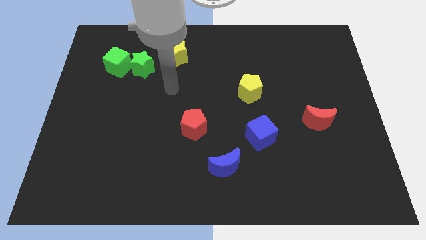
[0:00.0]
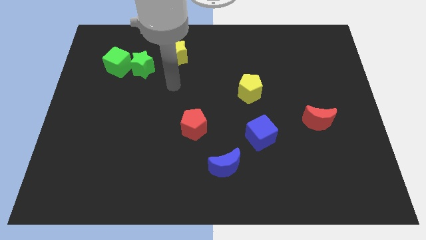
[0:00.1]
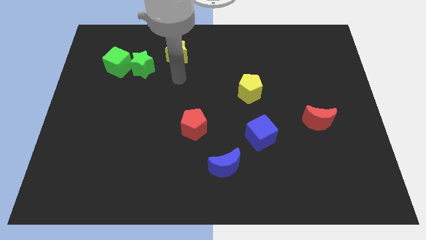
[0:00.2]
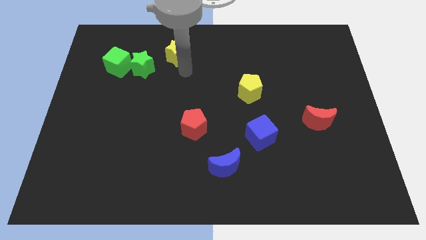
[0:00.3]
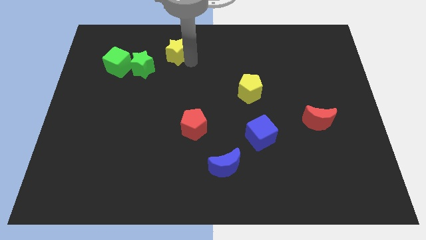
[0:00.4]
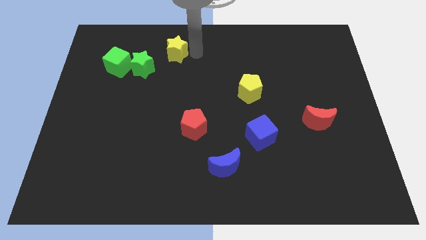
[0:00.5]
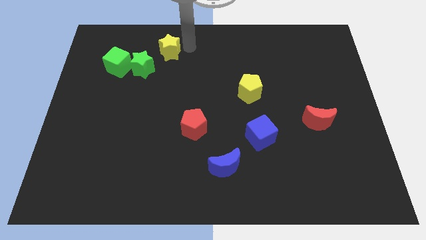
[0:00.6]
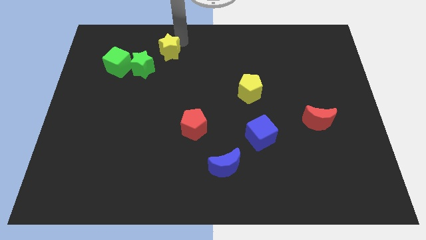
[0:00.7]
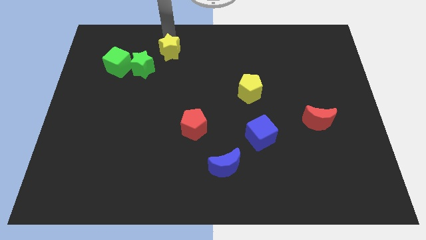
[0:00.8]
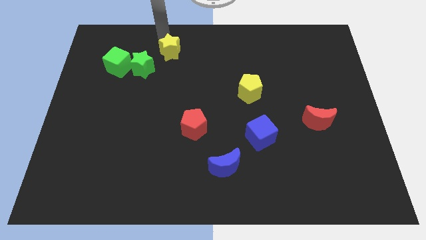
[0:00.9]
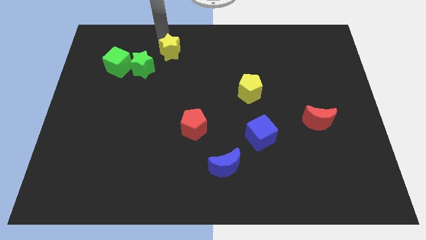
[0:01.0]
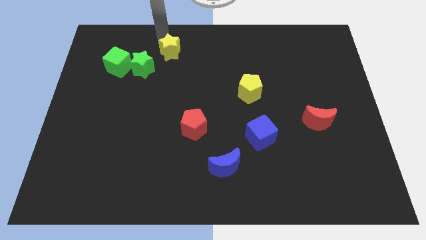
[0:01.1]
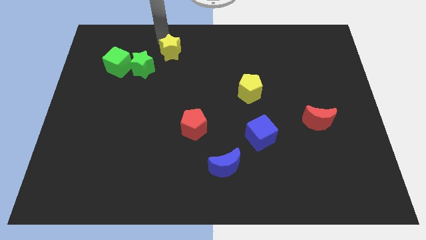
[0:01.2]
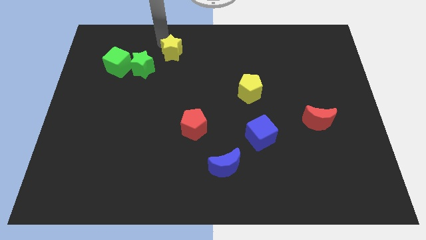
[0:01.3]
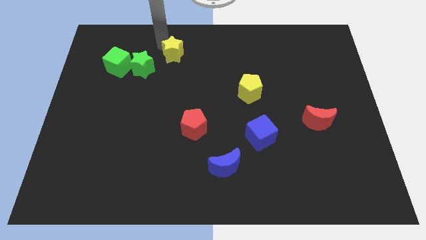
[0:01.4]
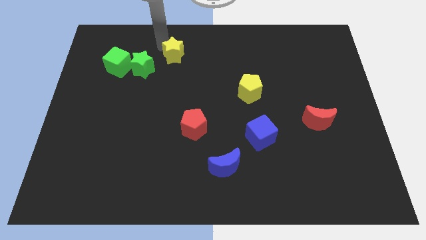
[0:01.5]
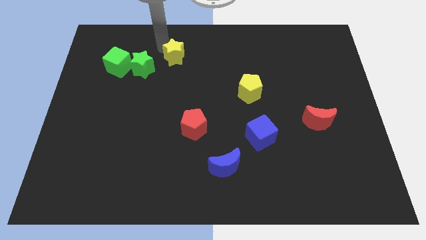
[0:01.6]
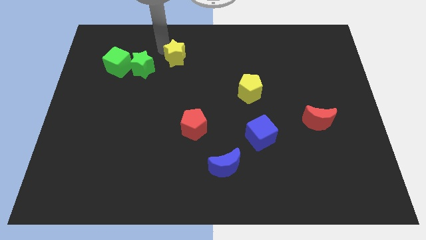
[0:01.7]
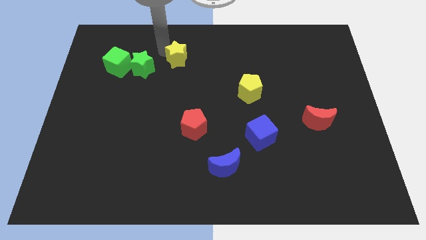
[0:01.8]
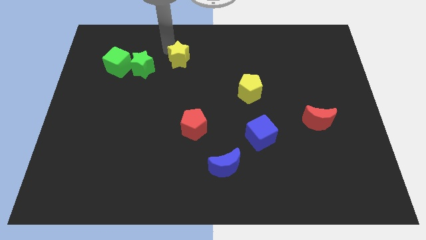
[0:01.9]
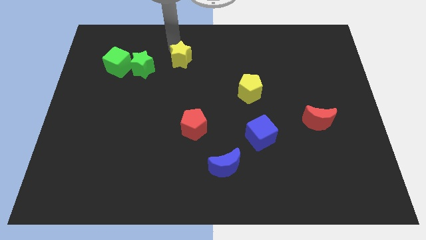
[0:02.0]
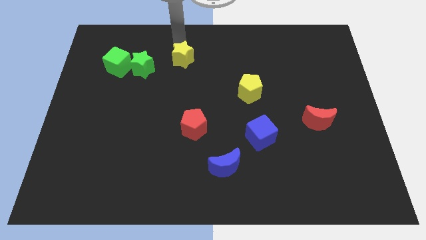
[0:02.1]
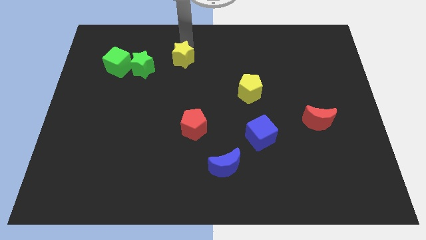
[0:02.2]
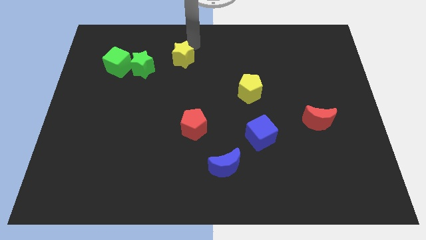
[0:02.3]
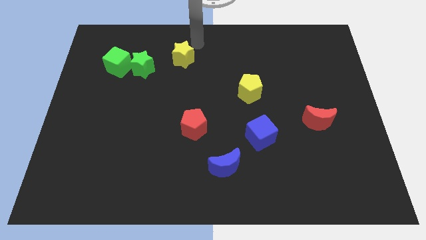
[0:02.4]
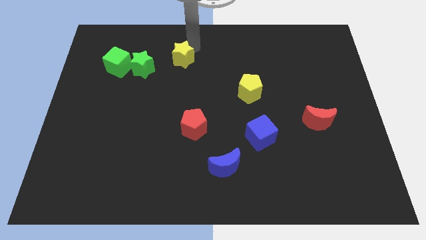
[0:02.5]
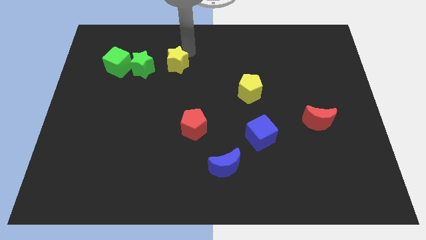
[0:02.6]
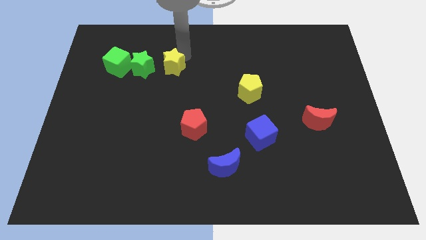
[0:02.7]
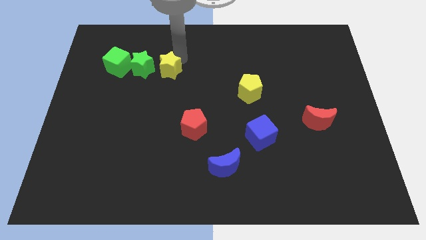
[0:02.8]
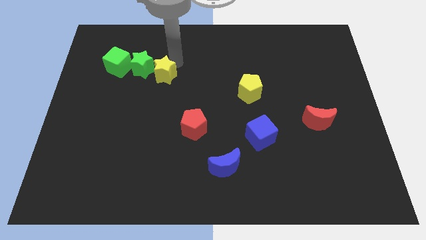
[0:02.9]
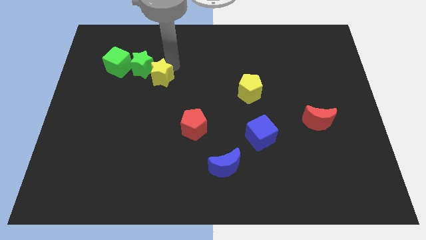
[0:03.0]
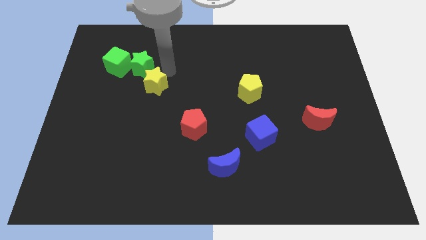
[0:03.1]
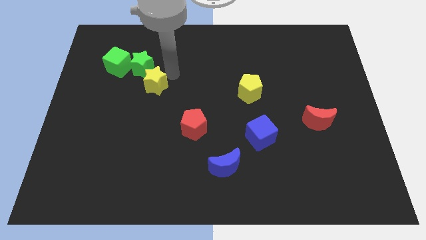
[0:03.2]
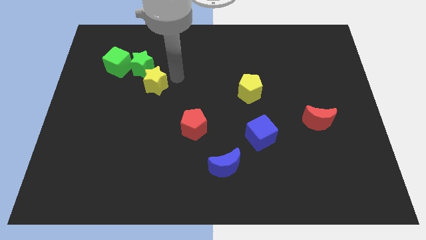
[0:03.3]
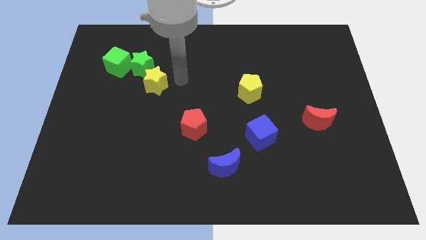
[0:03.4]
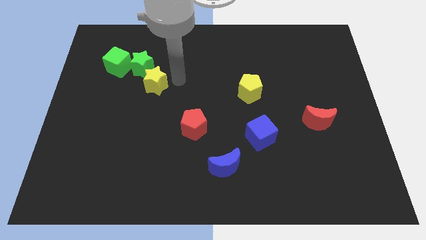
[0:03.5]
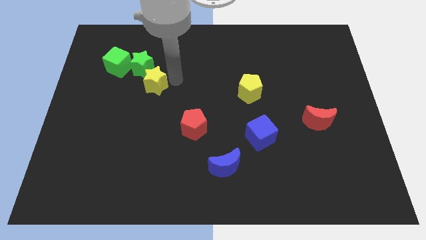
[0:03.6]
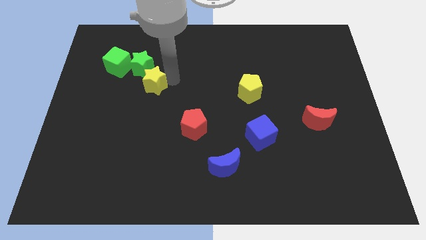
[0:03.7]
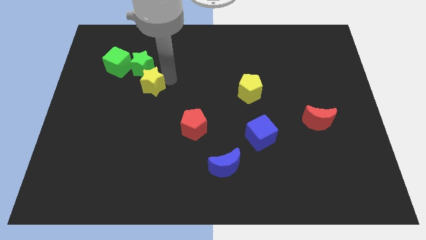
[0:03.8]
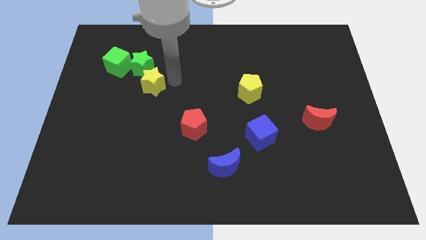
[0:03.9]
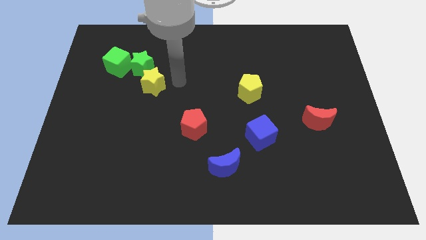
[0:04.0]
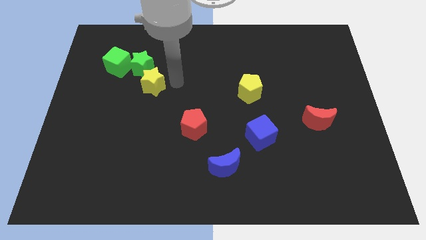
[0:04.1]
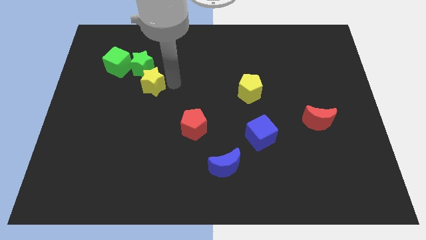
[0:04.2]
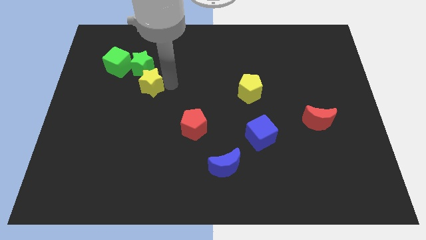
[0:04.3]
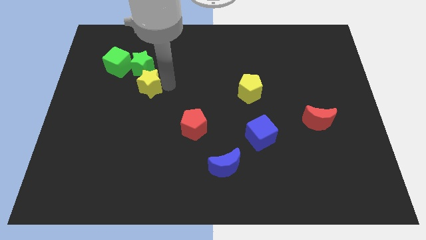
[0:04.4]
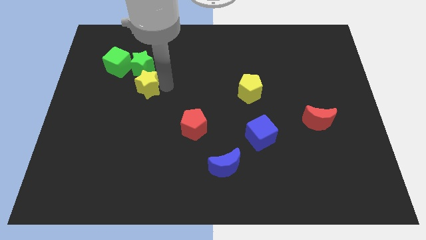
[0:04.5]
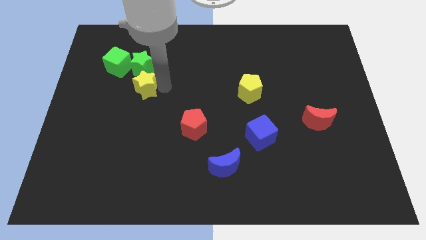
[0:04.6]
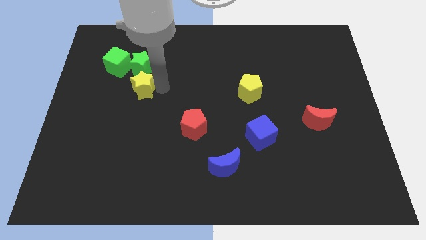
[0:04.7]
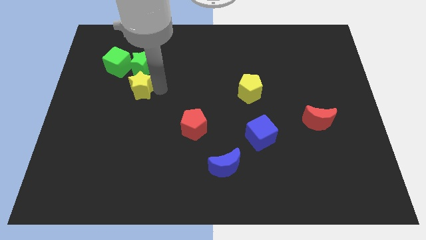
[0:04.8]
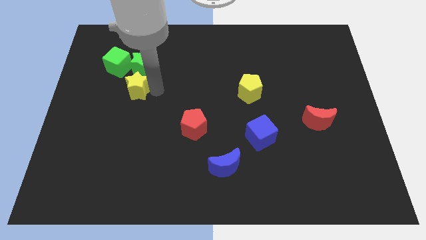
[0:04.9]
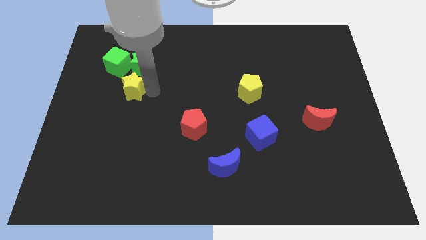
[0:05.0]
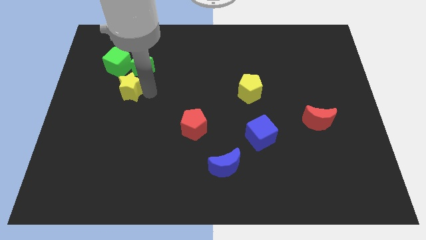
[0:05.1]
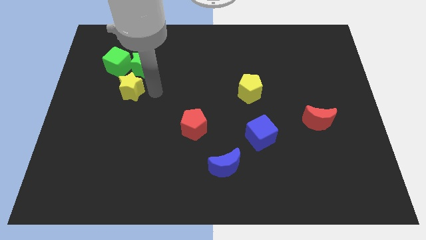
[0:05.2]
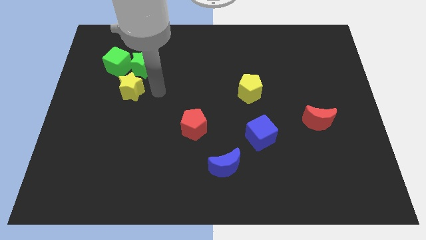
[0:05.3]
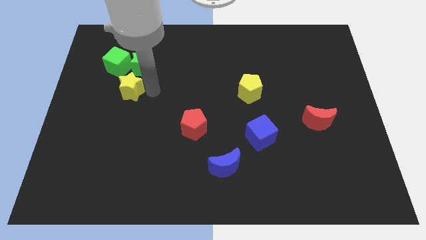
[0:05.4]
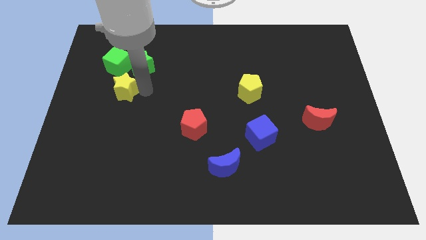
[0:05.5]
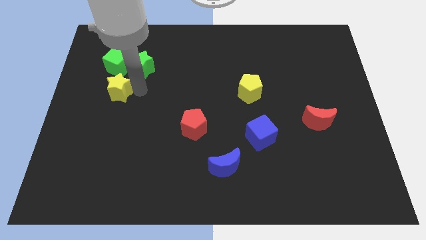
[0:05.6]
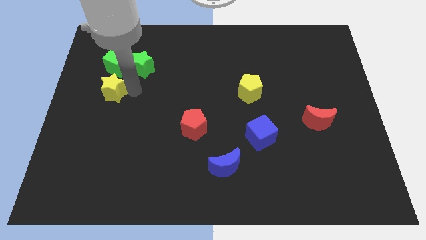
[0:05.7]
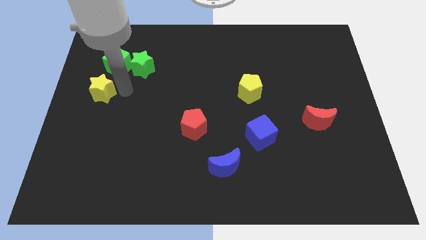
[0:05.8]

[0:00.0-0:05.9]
push the yellow star to the left side of the board

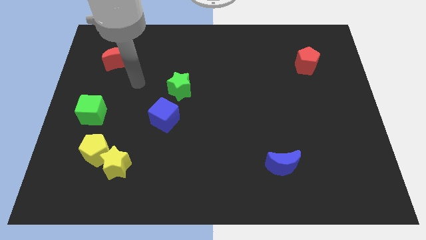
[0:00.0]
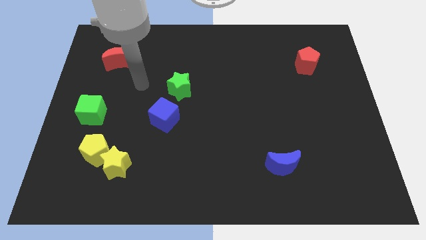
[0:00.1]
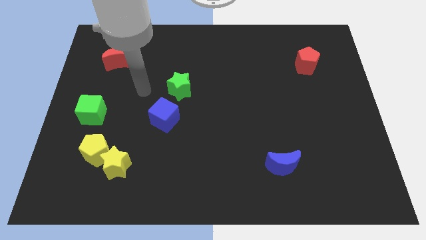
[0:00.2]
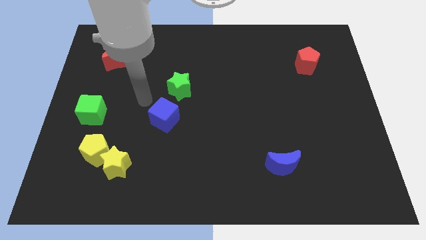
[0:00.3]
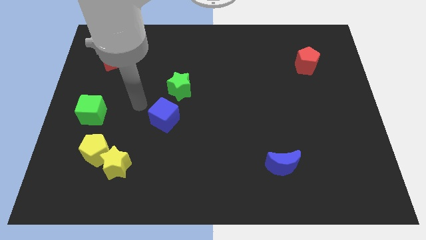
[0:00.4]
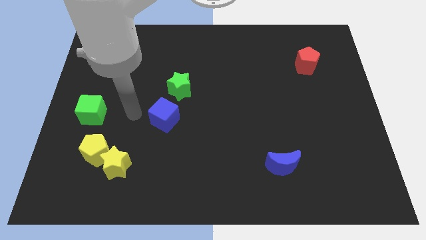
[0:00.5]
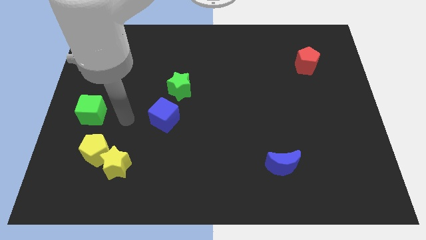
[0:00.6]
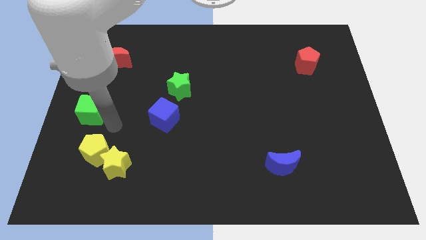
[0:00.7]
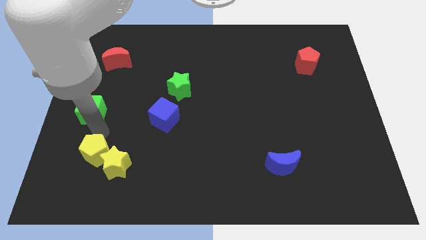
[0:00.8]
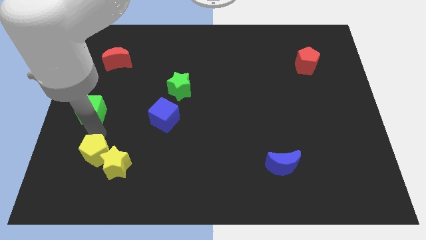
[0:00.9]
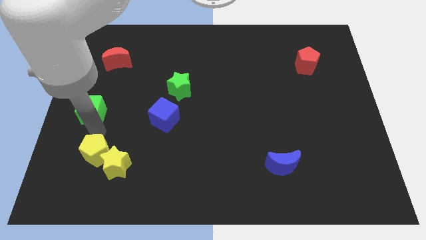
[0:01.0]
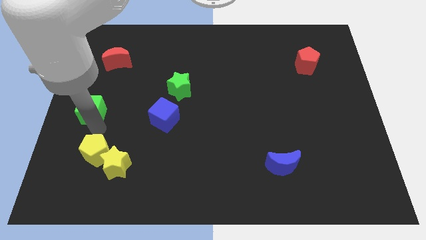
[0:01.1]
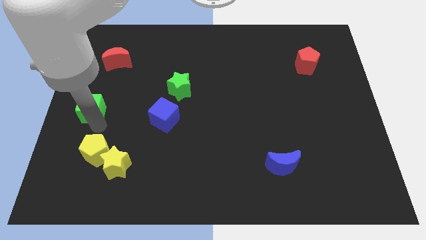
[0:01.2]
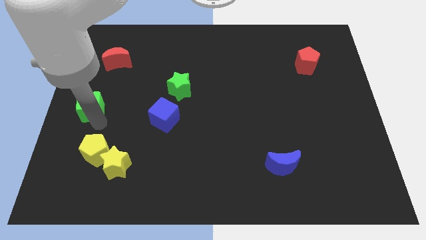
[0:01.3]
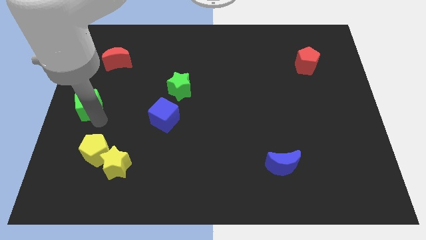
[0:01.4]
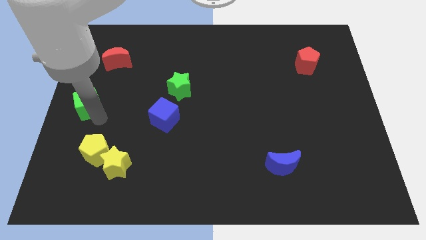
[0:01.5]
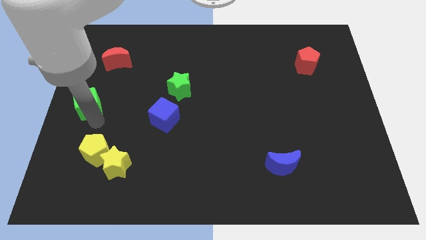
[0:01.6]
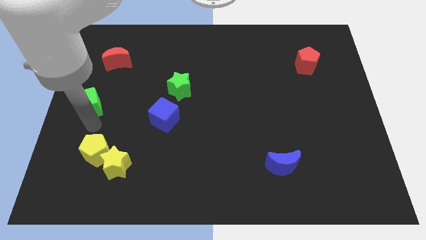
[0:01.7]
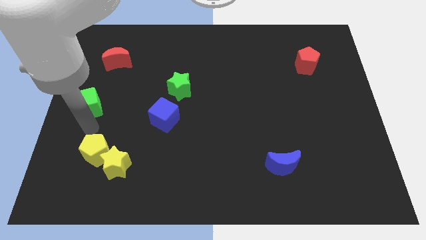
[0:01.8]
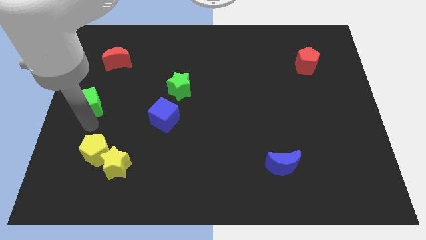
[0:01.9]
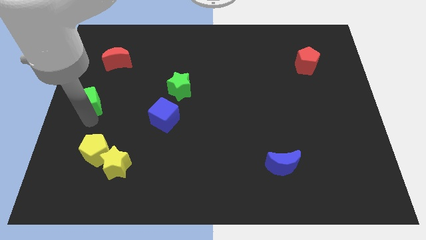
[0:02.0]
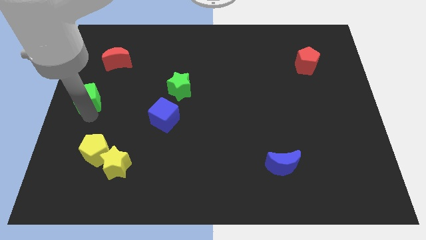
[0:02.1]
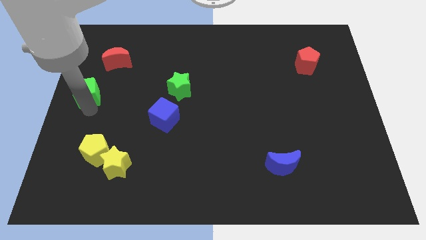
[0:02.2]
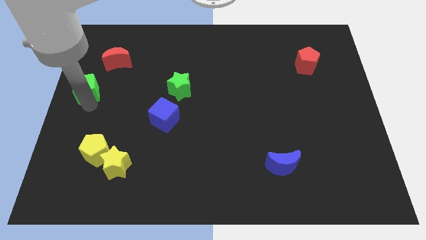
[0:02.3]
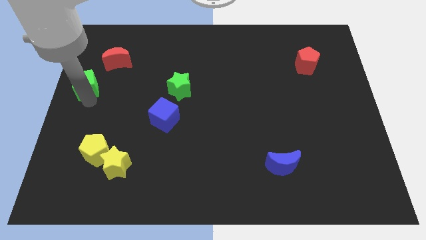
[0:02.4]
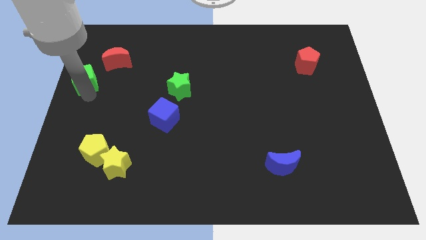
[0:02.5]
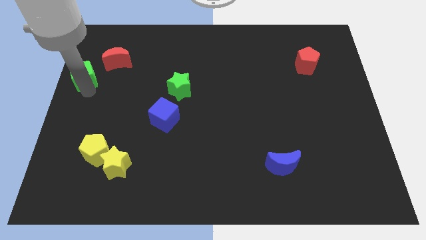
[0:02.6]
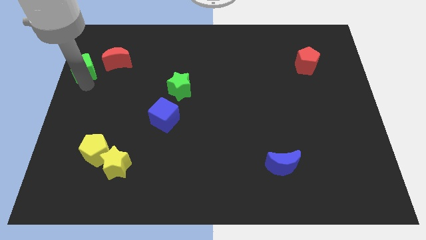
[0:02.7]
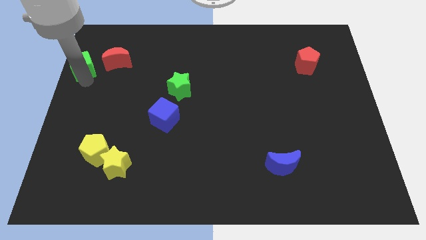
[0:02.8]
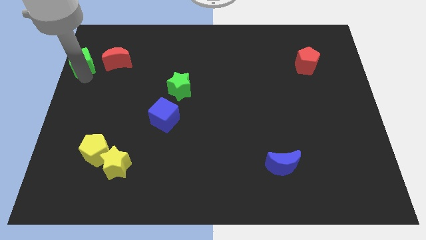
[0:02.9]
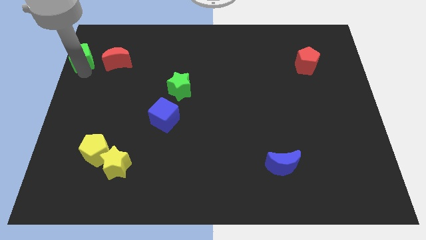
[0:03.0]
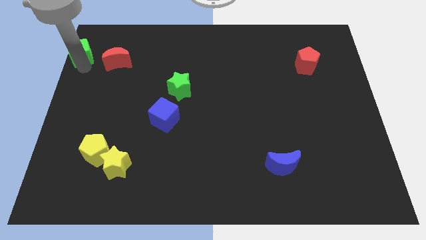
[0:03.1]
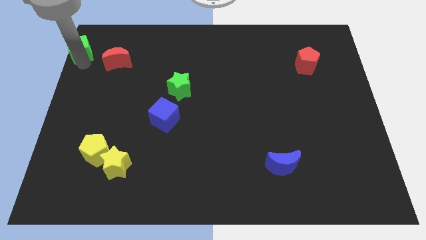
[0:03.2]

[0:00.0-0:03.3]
move the green cube to the top left corner
